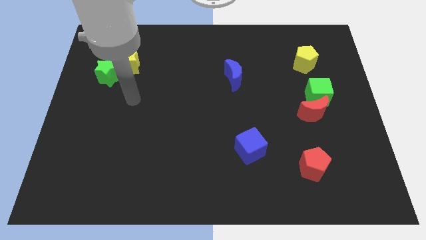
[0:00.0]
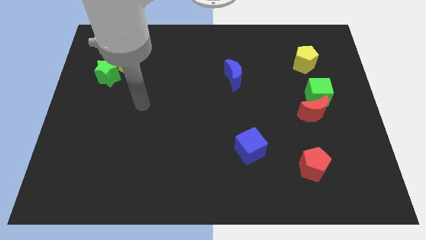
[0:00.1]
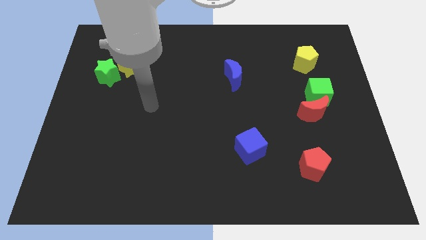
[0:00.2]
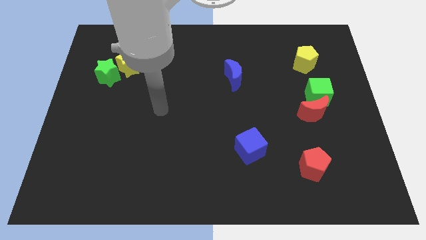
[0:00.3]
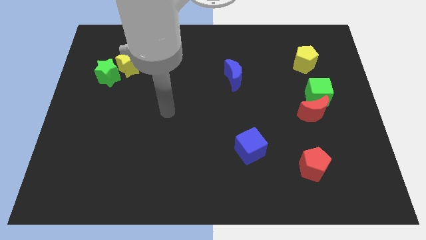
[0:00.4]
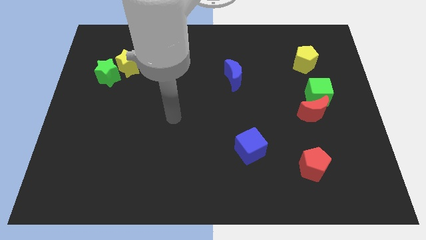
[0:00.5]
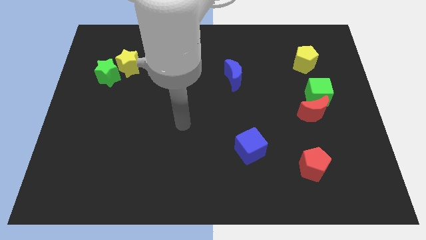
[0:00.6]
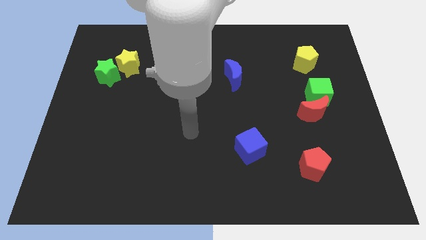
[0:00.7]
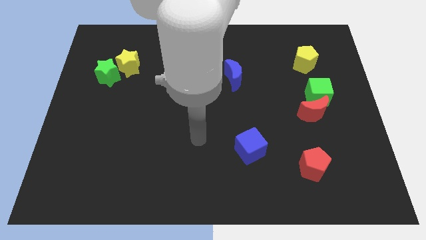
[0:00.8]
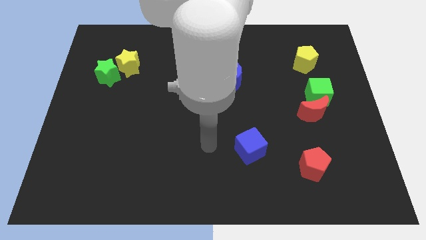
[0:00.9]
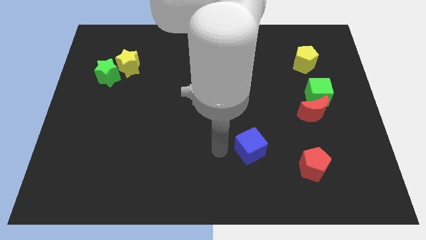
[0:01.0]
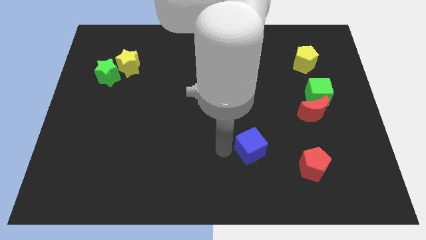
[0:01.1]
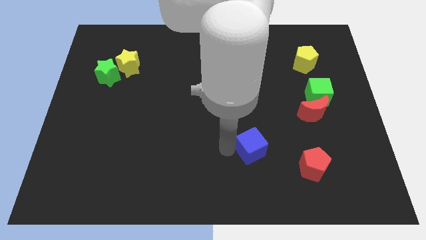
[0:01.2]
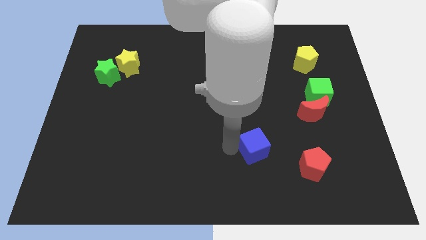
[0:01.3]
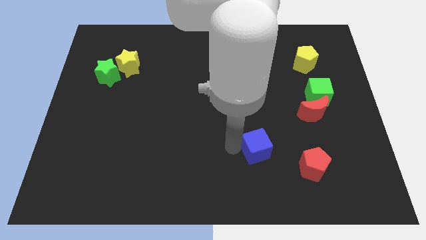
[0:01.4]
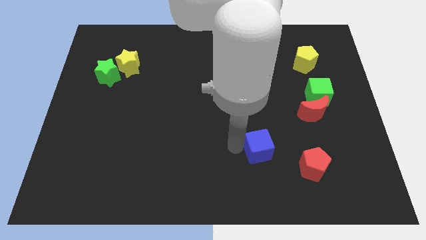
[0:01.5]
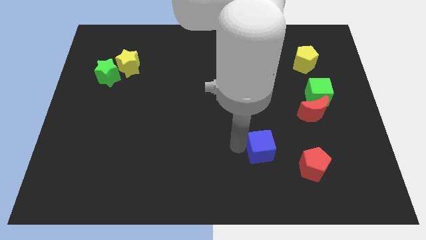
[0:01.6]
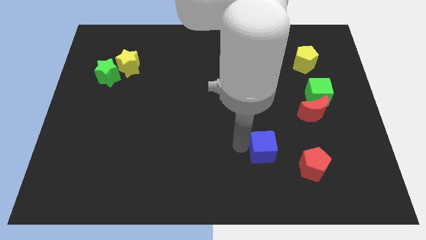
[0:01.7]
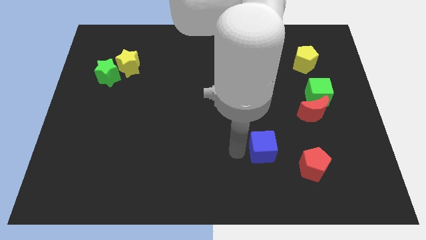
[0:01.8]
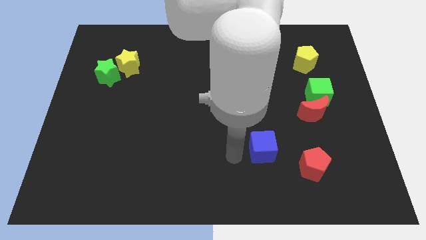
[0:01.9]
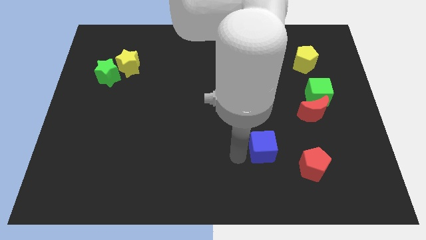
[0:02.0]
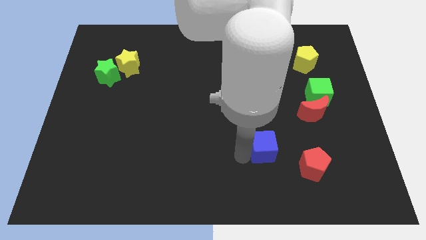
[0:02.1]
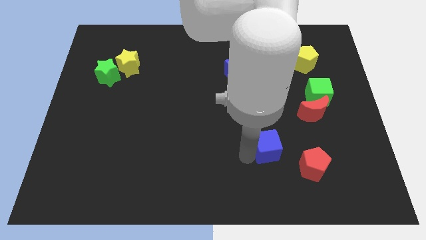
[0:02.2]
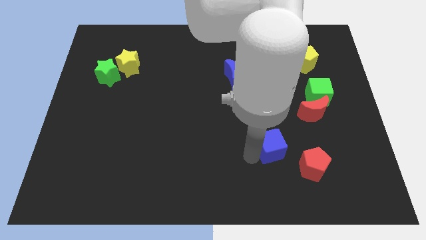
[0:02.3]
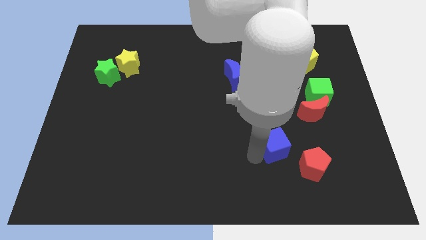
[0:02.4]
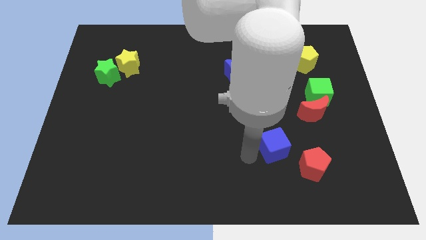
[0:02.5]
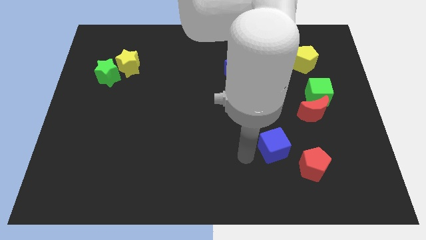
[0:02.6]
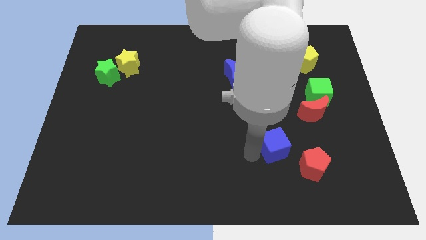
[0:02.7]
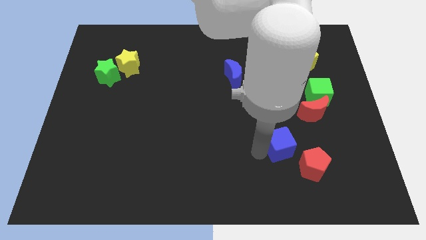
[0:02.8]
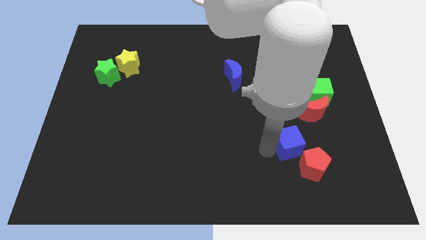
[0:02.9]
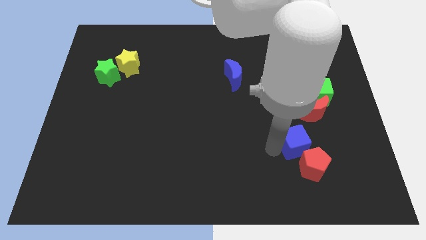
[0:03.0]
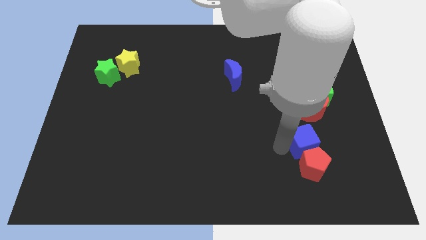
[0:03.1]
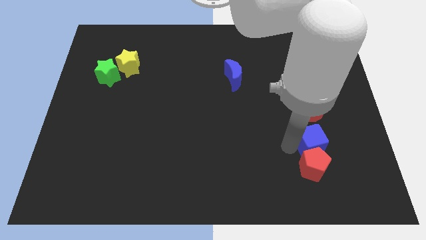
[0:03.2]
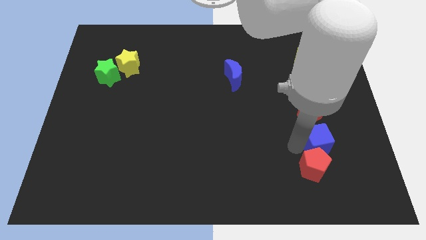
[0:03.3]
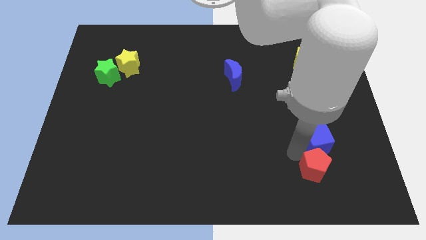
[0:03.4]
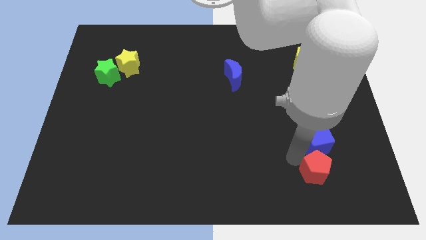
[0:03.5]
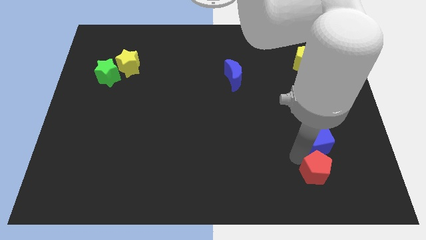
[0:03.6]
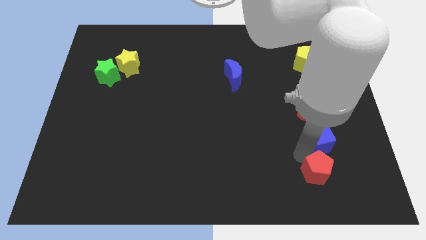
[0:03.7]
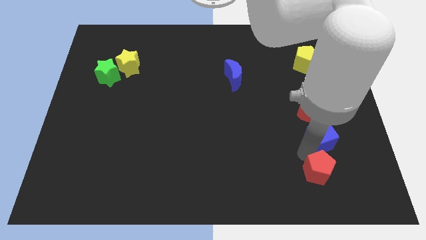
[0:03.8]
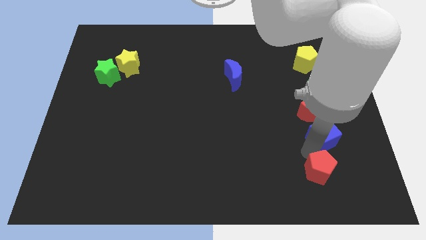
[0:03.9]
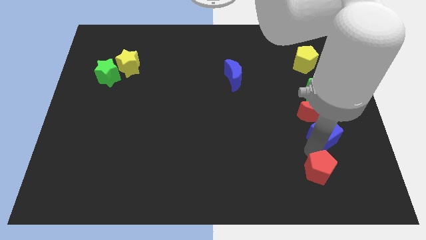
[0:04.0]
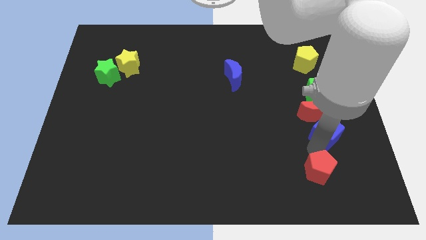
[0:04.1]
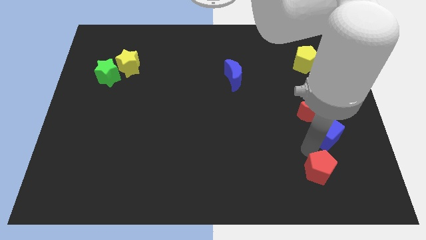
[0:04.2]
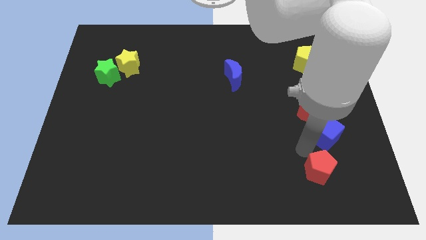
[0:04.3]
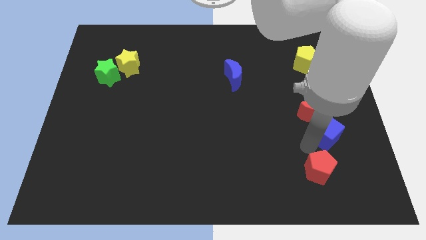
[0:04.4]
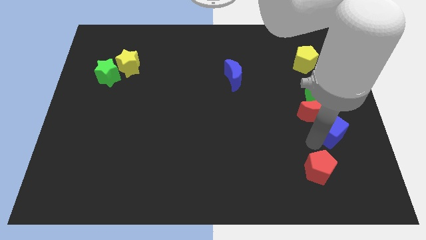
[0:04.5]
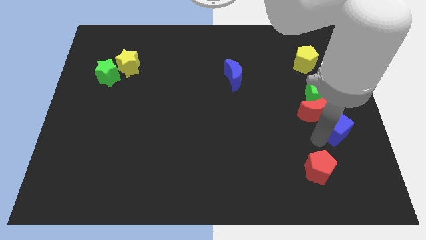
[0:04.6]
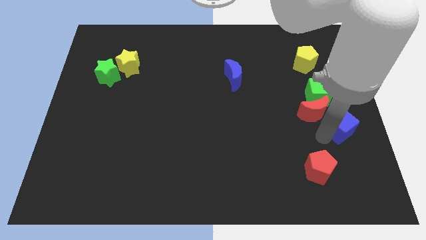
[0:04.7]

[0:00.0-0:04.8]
put the blue cube to the center right

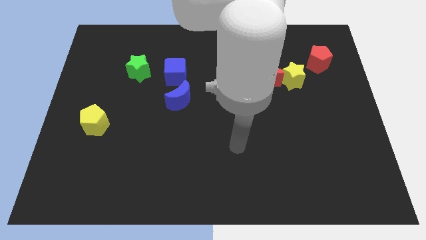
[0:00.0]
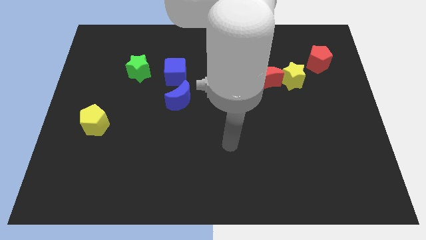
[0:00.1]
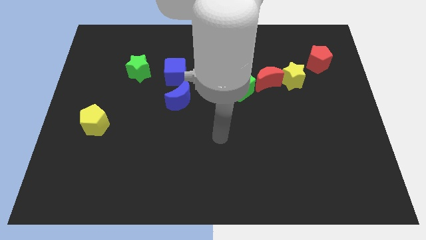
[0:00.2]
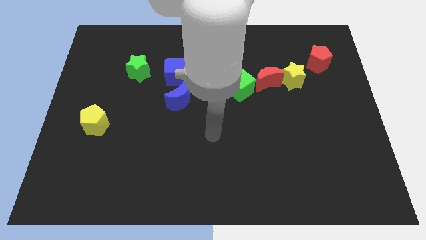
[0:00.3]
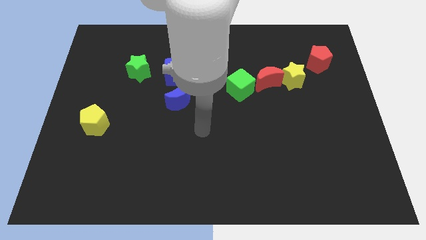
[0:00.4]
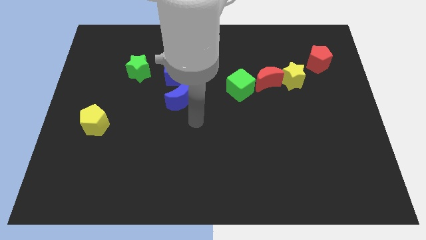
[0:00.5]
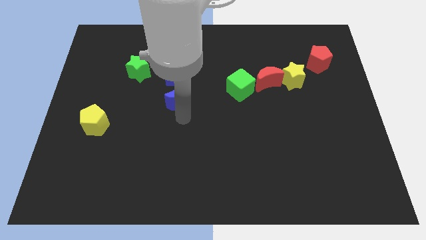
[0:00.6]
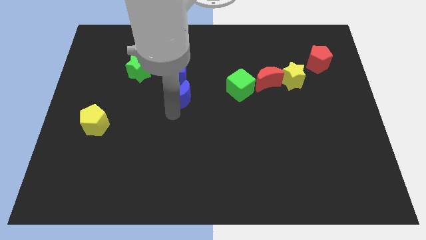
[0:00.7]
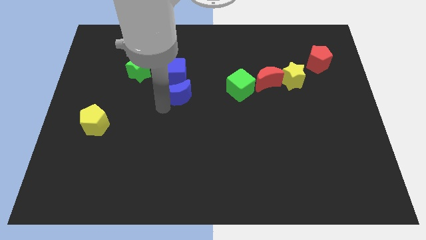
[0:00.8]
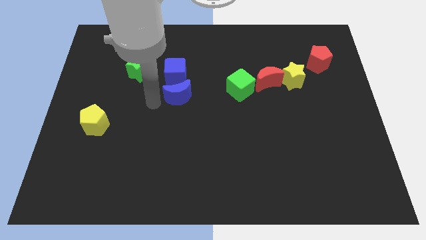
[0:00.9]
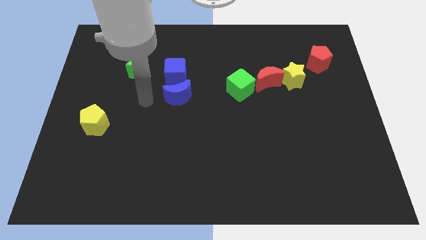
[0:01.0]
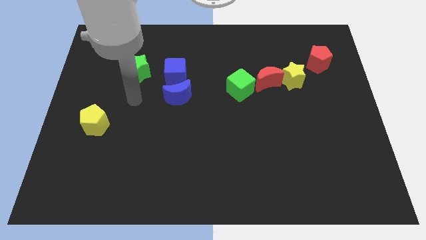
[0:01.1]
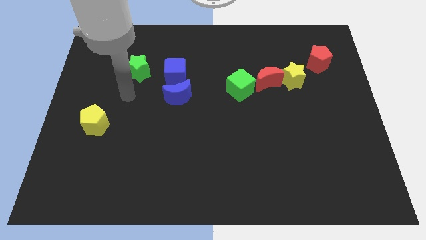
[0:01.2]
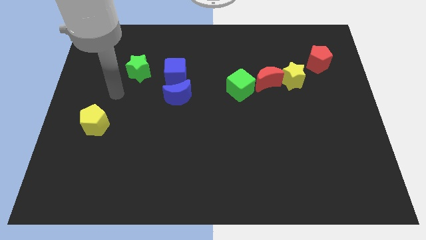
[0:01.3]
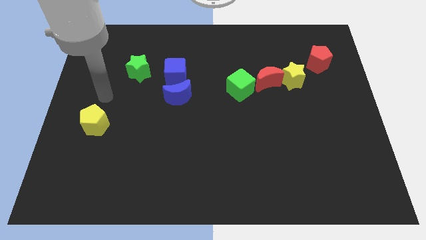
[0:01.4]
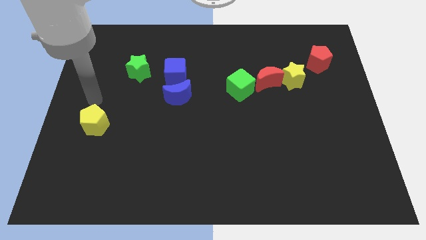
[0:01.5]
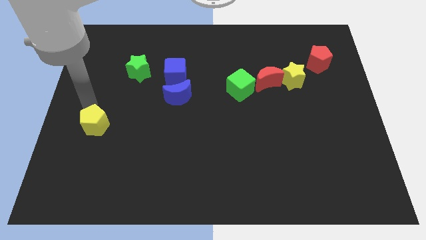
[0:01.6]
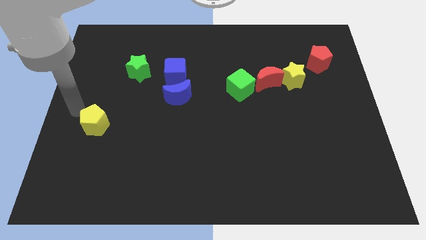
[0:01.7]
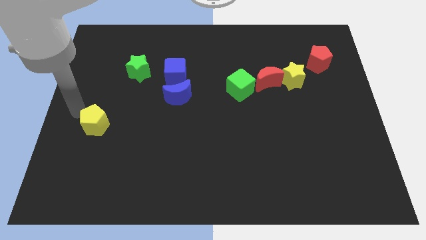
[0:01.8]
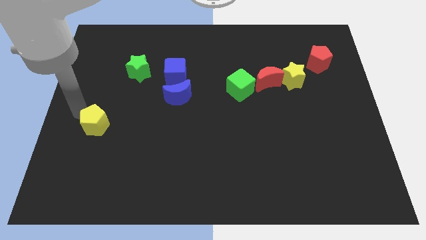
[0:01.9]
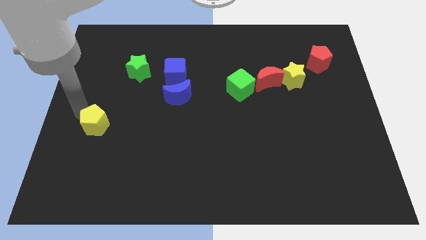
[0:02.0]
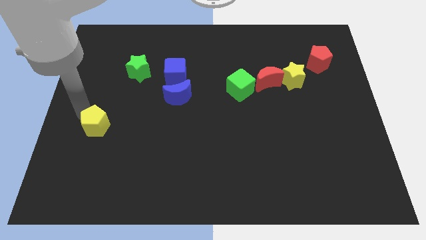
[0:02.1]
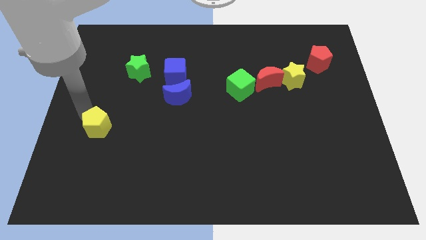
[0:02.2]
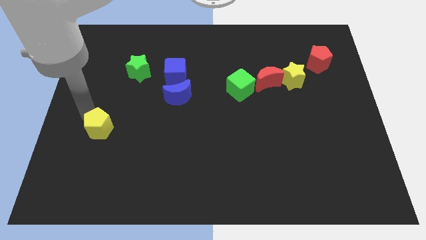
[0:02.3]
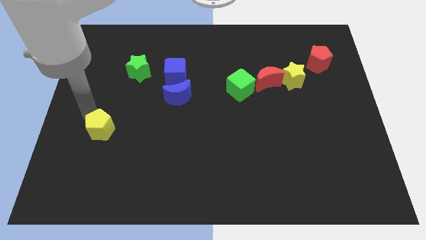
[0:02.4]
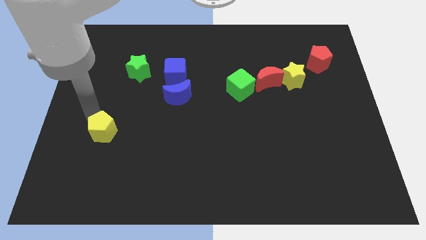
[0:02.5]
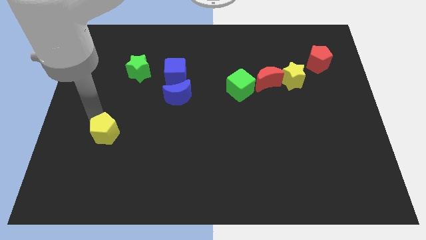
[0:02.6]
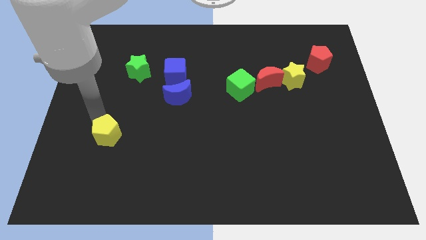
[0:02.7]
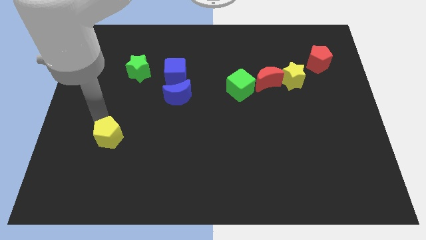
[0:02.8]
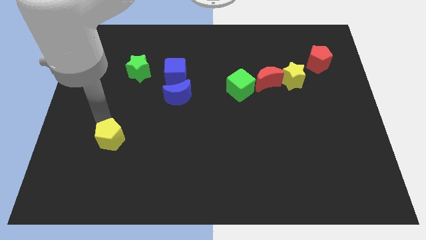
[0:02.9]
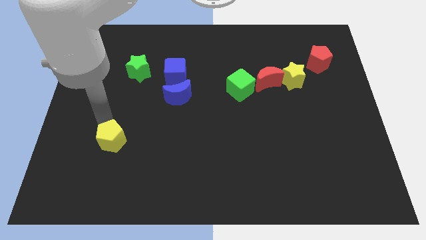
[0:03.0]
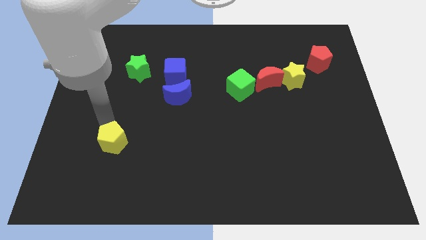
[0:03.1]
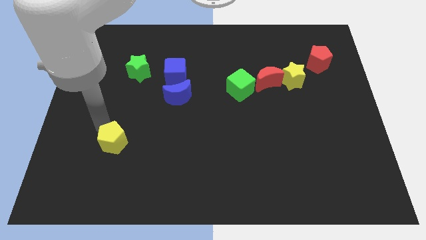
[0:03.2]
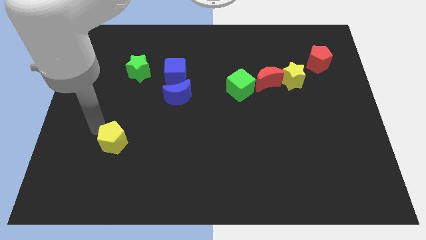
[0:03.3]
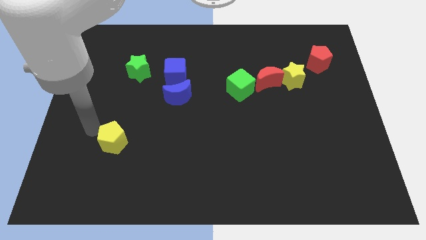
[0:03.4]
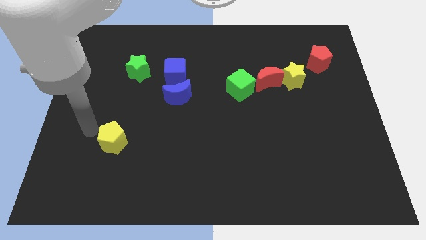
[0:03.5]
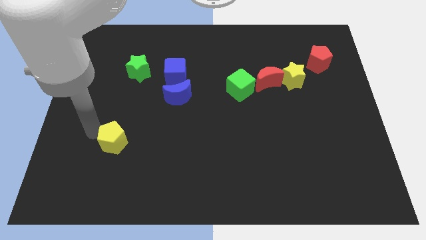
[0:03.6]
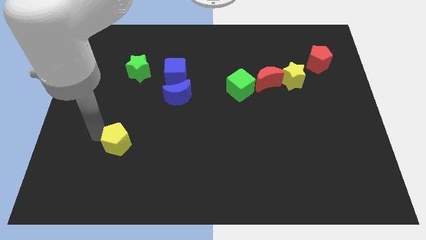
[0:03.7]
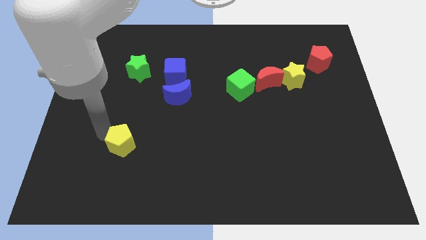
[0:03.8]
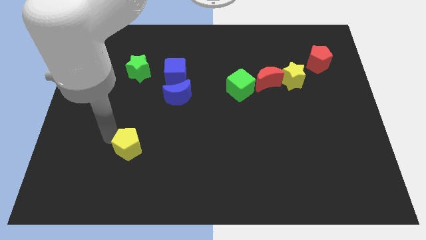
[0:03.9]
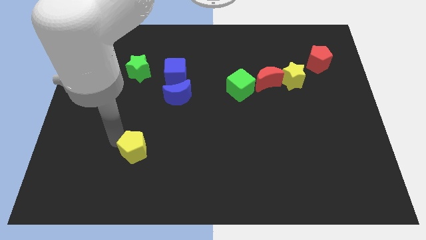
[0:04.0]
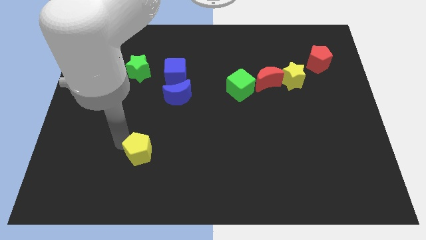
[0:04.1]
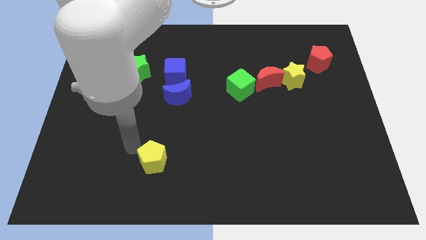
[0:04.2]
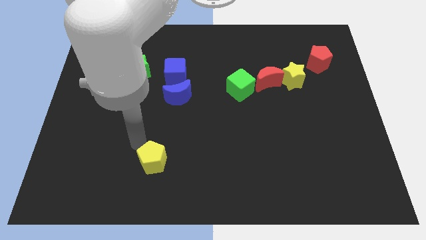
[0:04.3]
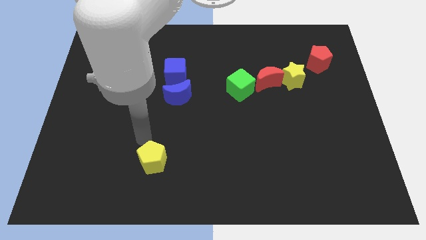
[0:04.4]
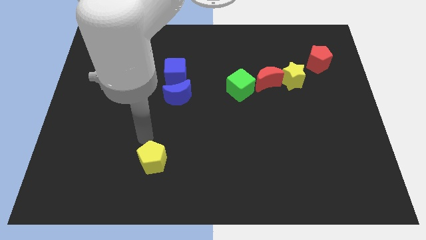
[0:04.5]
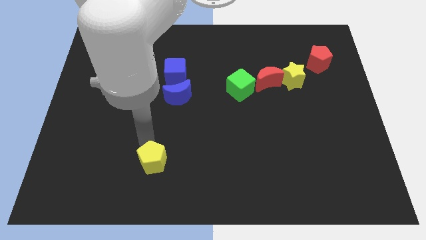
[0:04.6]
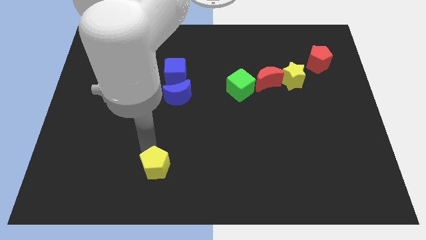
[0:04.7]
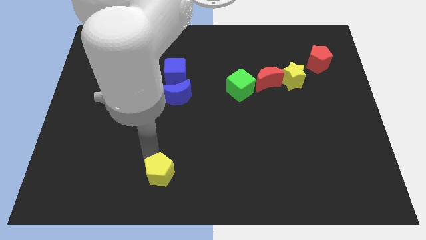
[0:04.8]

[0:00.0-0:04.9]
slide the yellow pentagon to the bottom
